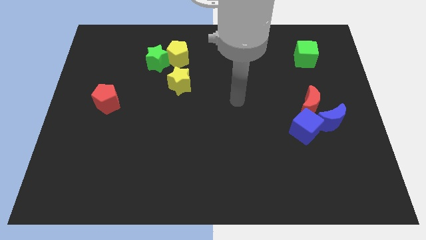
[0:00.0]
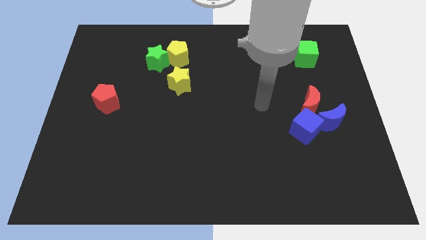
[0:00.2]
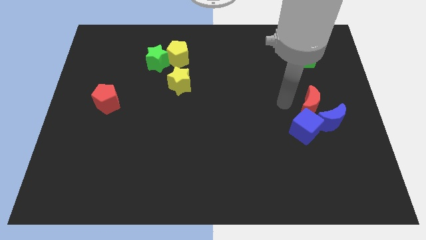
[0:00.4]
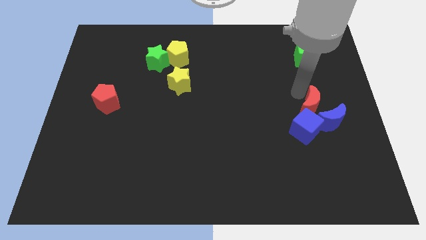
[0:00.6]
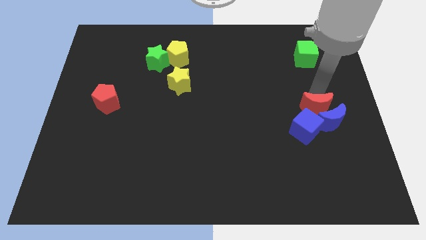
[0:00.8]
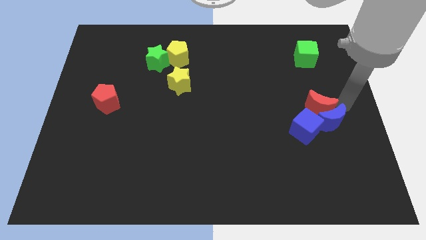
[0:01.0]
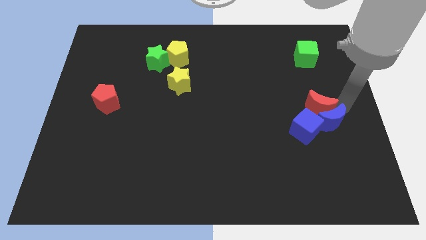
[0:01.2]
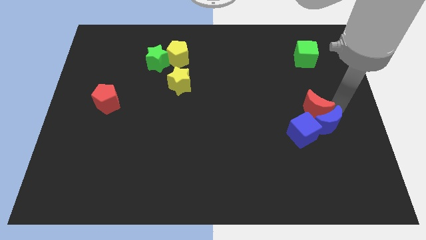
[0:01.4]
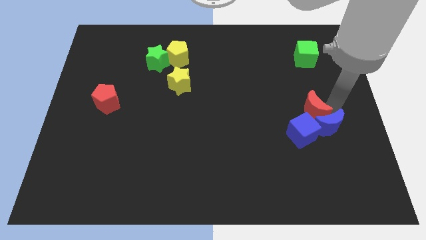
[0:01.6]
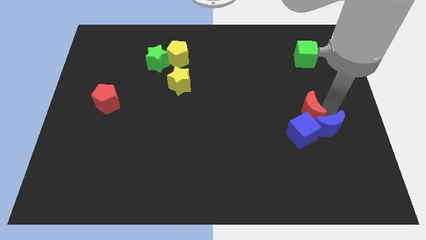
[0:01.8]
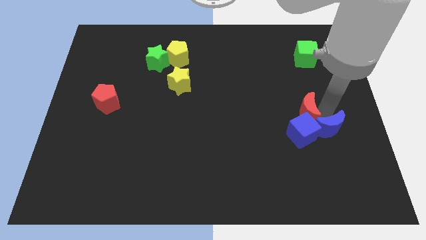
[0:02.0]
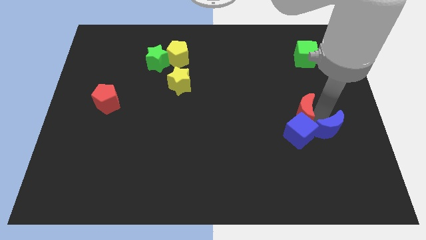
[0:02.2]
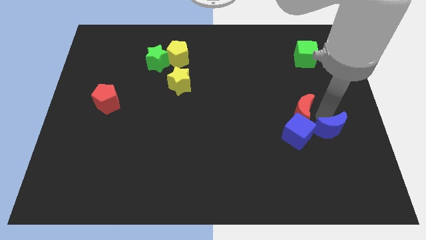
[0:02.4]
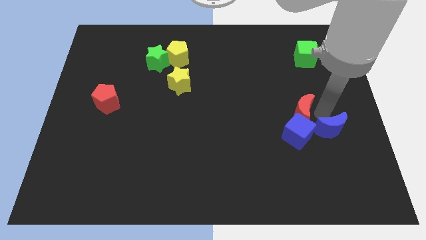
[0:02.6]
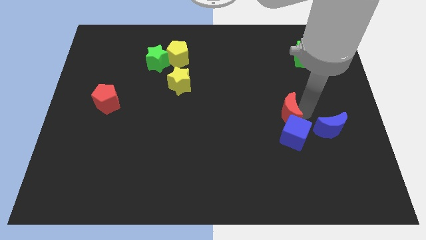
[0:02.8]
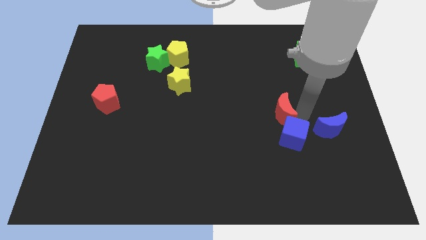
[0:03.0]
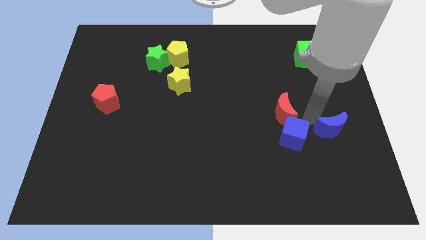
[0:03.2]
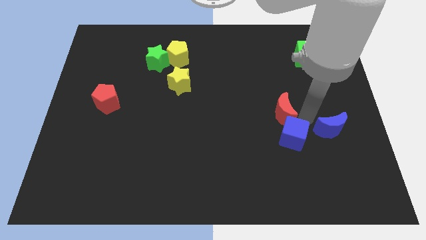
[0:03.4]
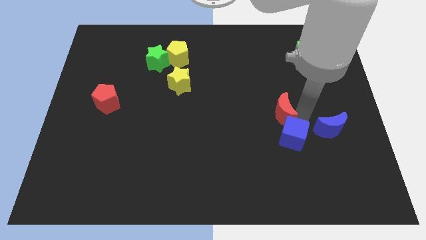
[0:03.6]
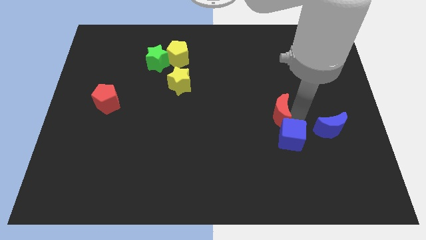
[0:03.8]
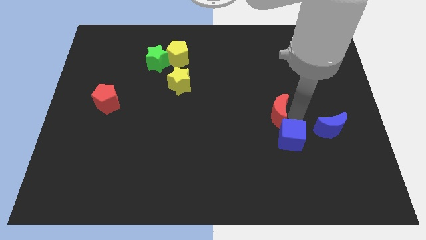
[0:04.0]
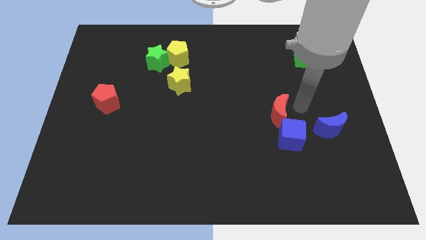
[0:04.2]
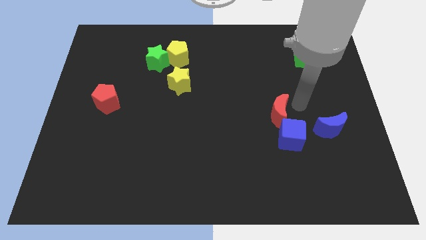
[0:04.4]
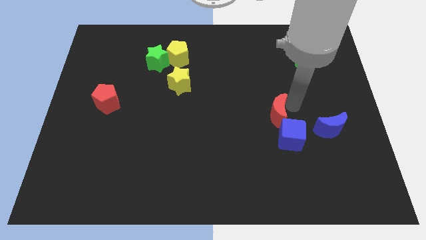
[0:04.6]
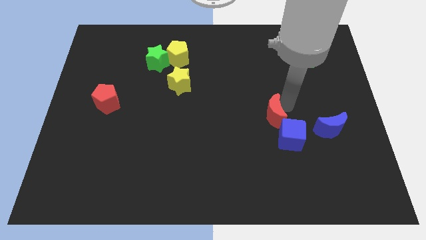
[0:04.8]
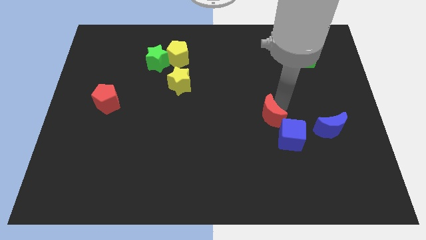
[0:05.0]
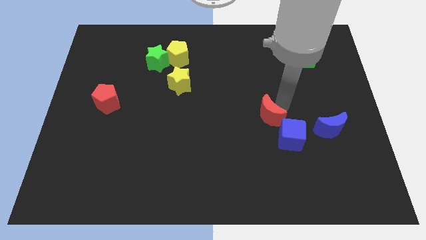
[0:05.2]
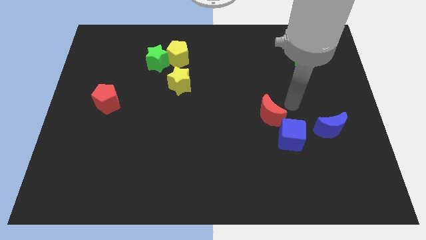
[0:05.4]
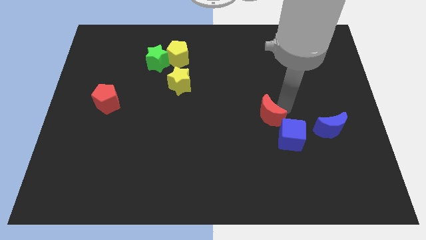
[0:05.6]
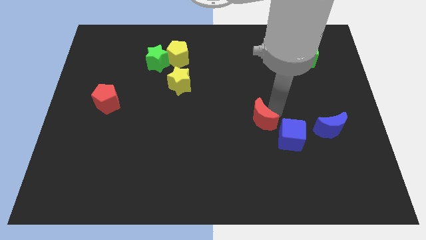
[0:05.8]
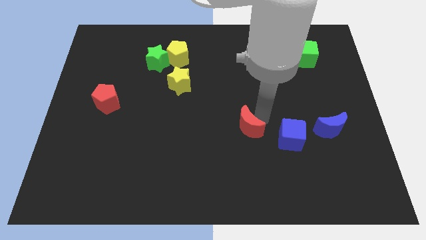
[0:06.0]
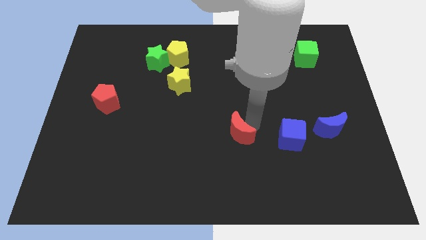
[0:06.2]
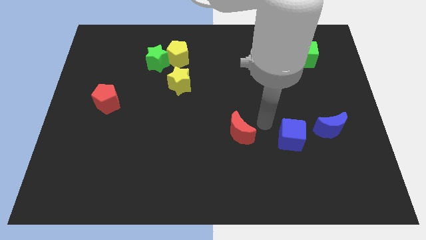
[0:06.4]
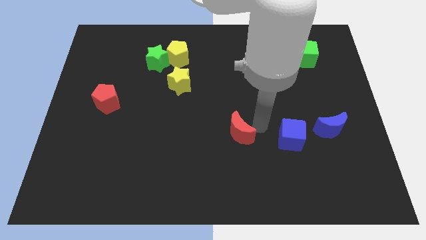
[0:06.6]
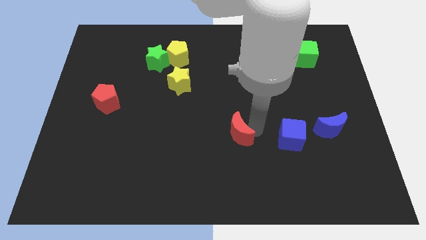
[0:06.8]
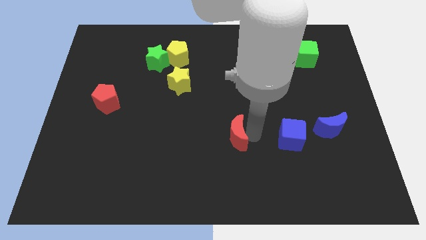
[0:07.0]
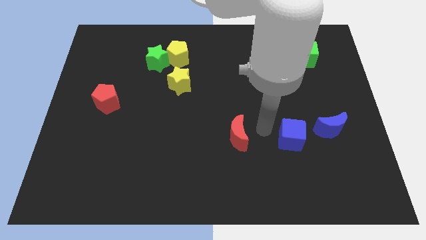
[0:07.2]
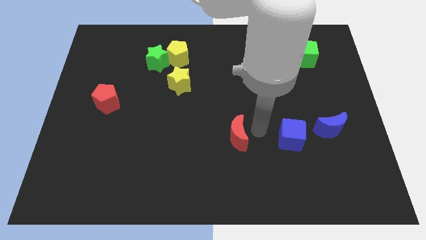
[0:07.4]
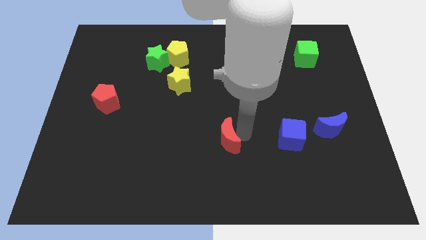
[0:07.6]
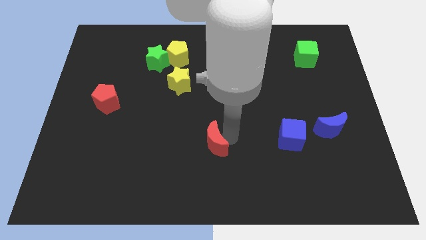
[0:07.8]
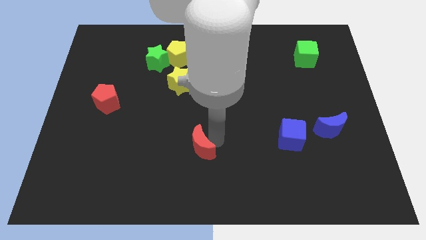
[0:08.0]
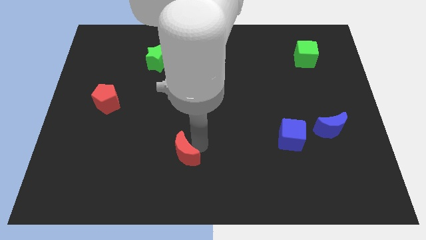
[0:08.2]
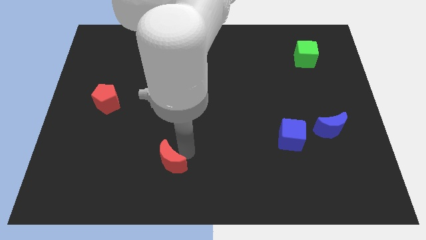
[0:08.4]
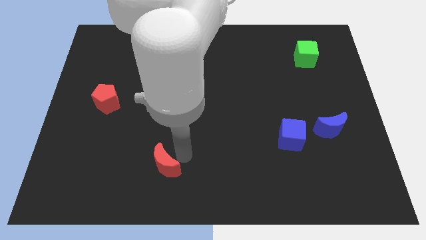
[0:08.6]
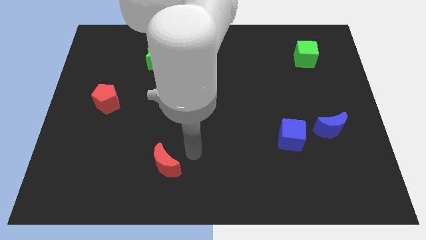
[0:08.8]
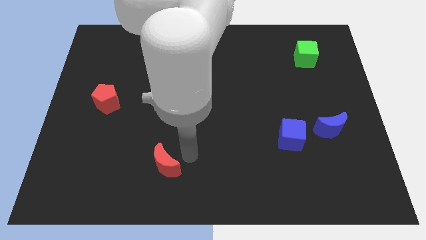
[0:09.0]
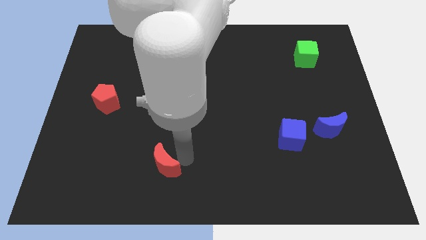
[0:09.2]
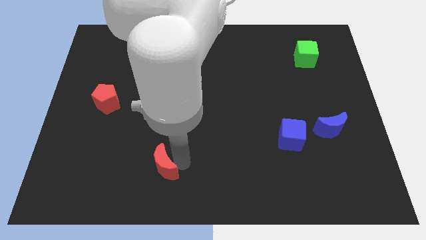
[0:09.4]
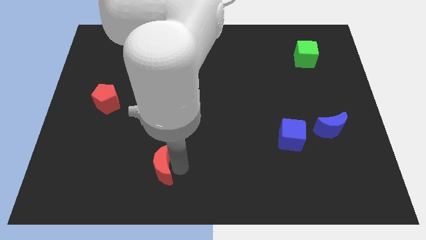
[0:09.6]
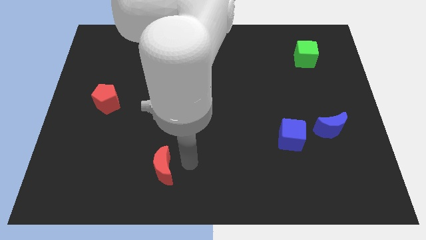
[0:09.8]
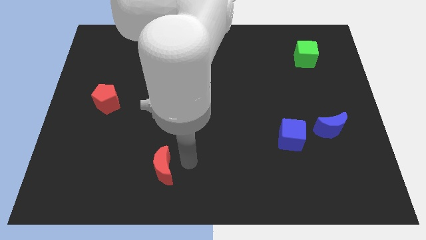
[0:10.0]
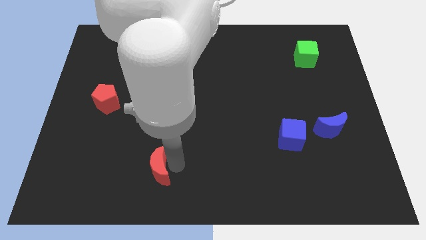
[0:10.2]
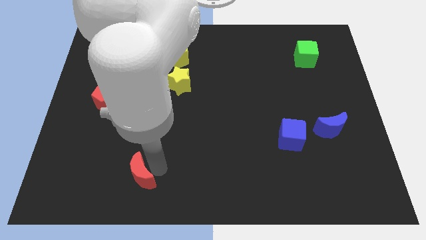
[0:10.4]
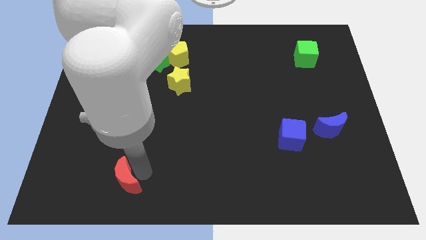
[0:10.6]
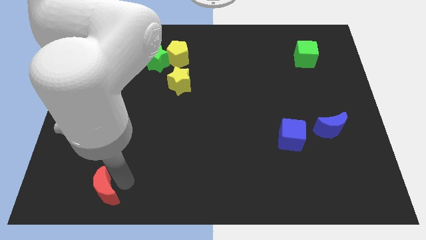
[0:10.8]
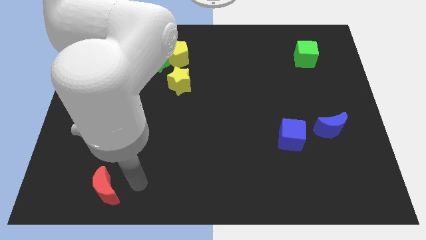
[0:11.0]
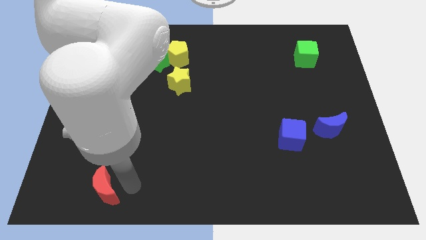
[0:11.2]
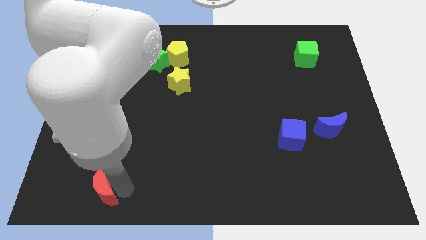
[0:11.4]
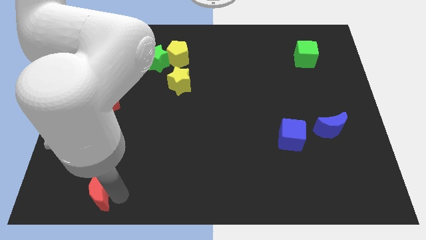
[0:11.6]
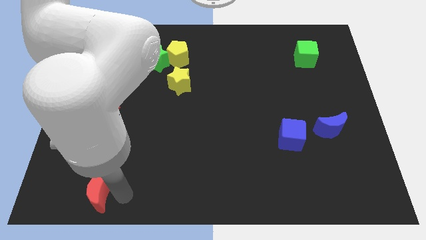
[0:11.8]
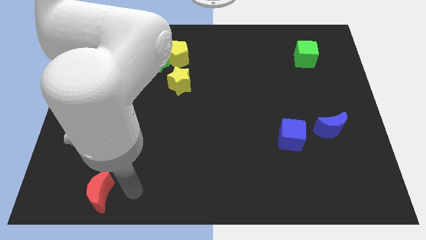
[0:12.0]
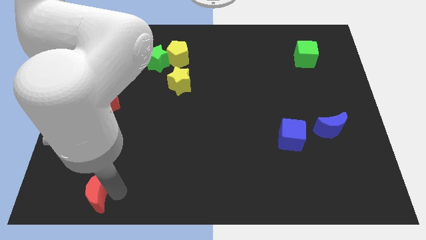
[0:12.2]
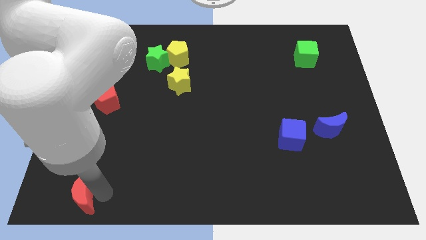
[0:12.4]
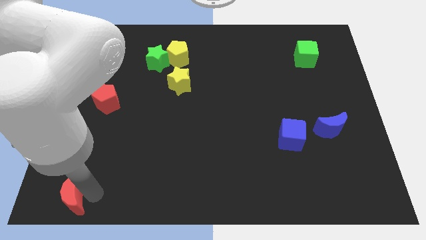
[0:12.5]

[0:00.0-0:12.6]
push the red moon to the bottom left corner
